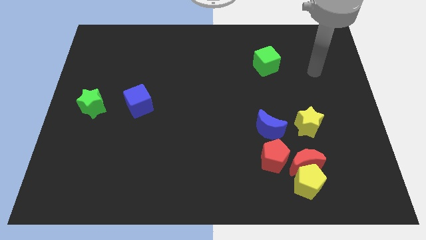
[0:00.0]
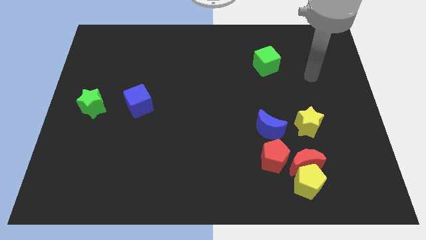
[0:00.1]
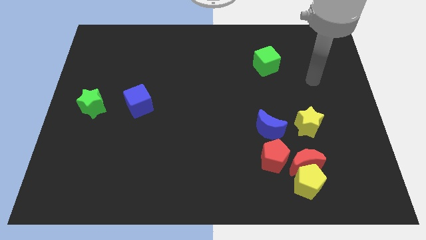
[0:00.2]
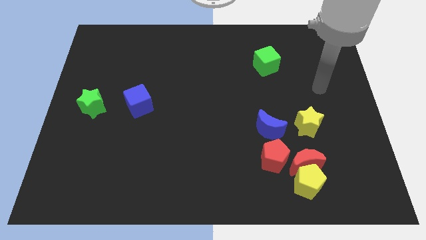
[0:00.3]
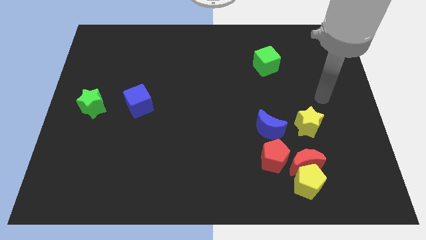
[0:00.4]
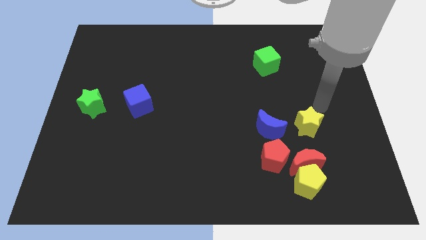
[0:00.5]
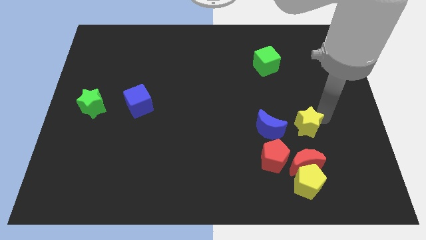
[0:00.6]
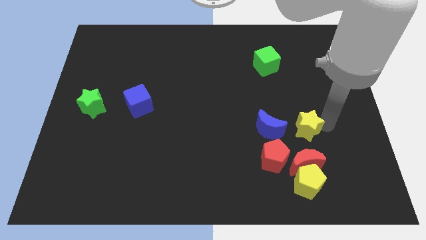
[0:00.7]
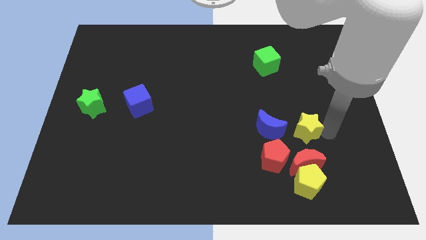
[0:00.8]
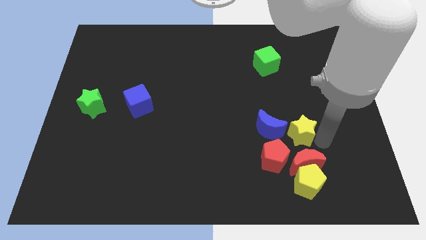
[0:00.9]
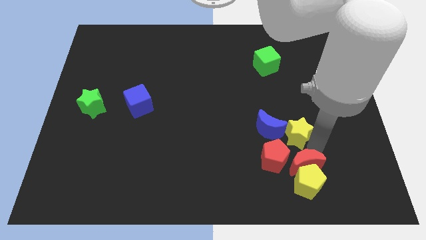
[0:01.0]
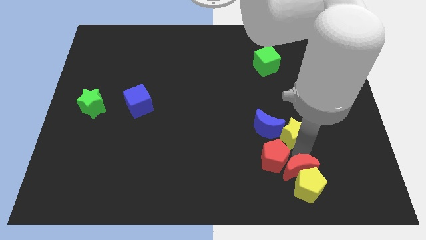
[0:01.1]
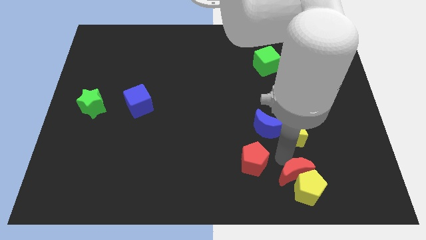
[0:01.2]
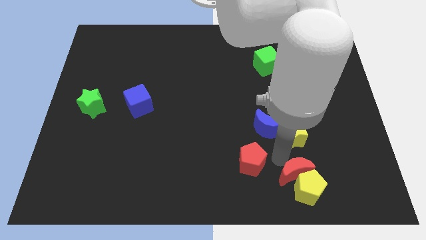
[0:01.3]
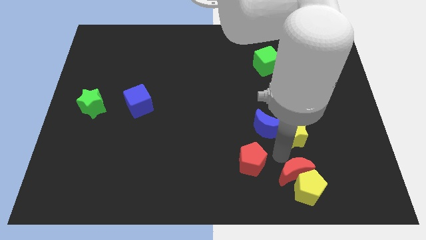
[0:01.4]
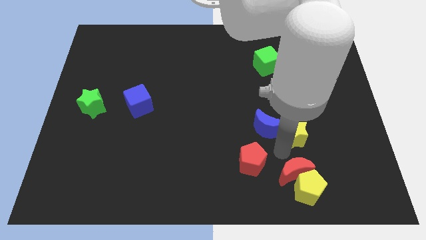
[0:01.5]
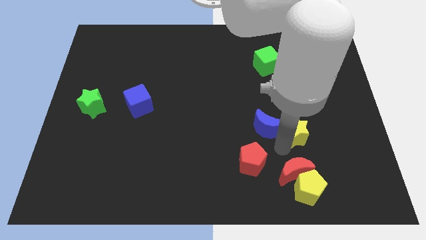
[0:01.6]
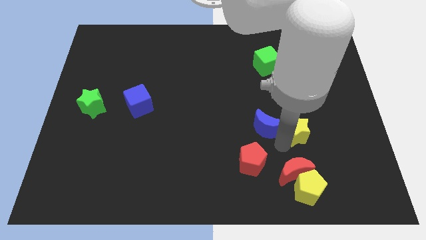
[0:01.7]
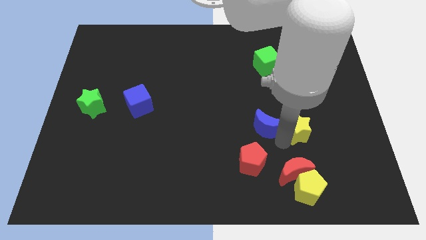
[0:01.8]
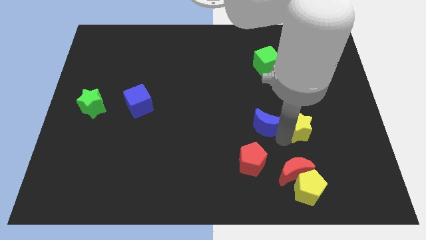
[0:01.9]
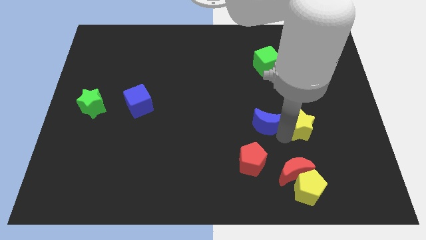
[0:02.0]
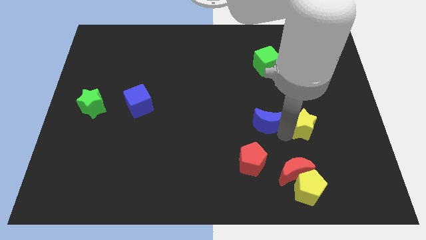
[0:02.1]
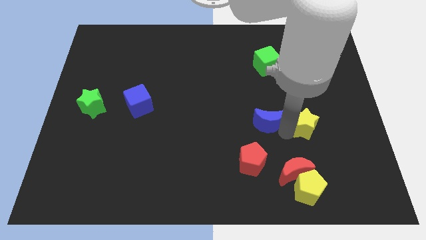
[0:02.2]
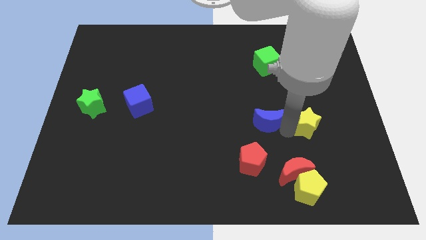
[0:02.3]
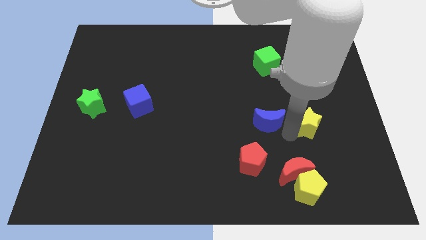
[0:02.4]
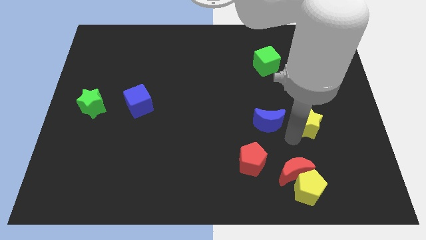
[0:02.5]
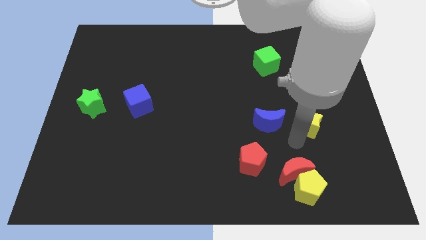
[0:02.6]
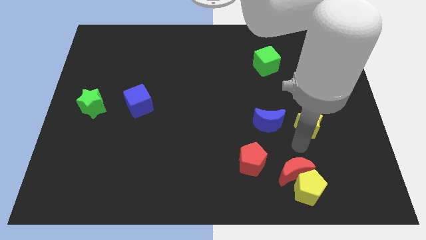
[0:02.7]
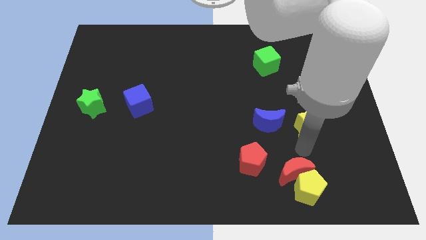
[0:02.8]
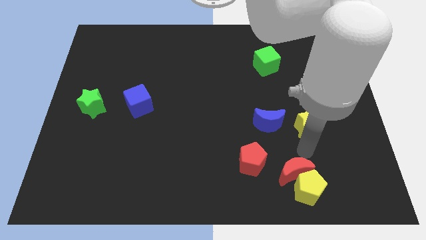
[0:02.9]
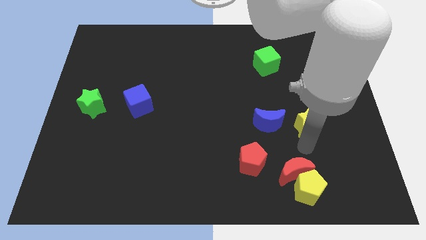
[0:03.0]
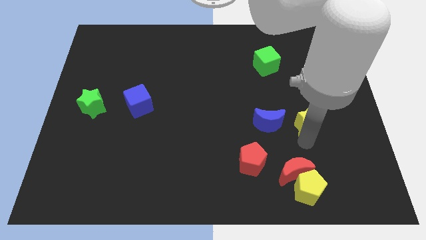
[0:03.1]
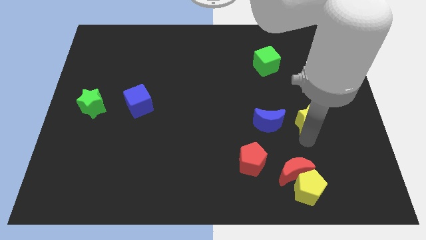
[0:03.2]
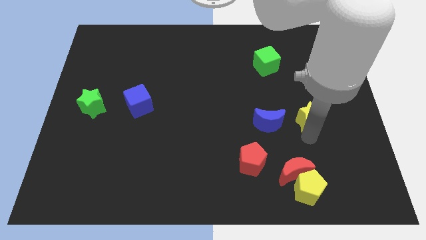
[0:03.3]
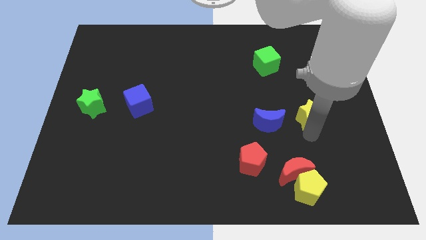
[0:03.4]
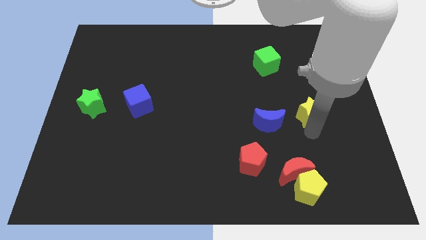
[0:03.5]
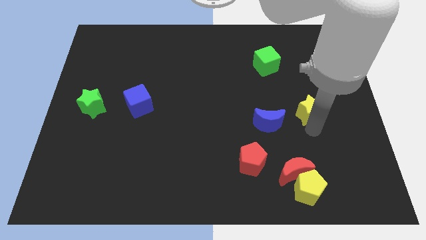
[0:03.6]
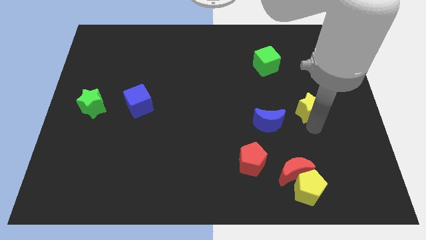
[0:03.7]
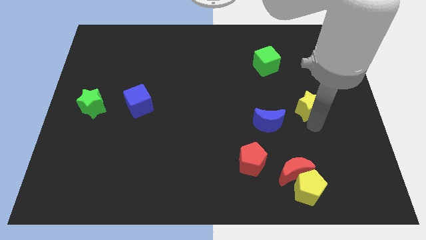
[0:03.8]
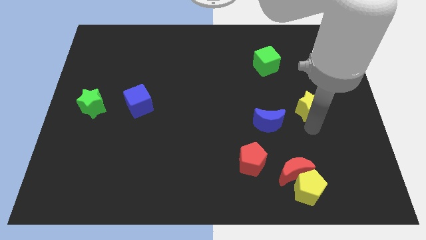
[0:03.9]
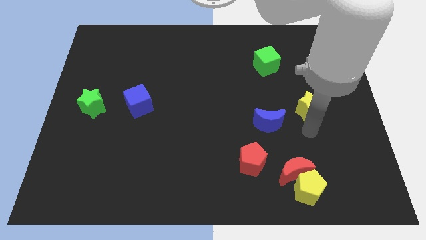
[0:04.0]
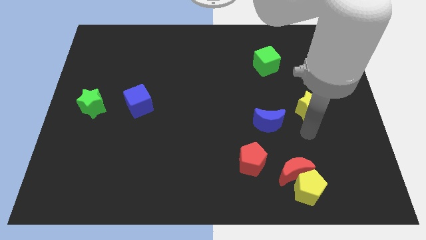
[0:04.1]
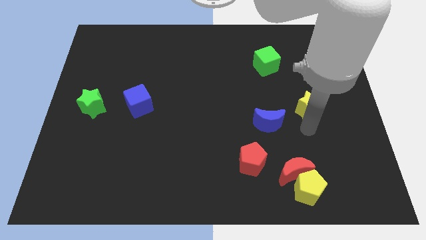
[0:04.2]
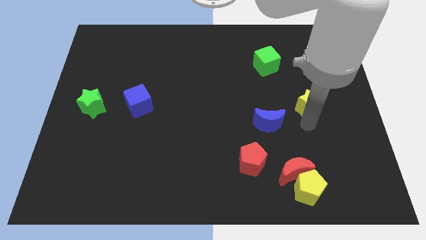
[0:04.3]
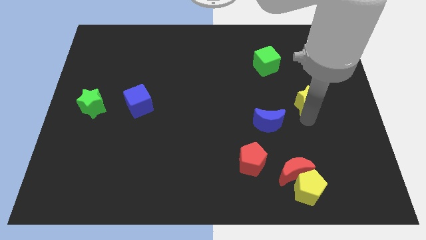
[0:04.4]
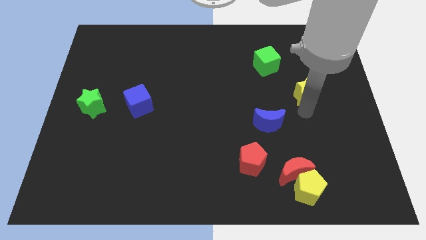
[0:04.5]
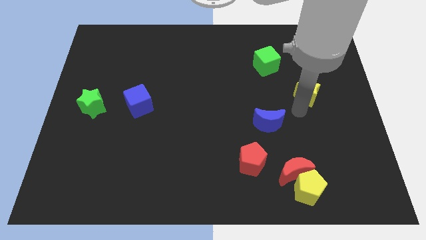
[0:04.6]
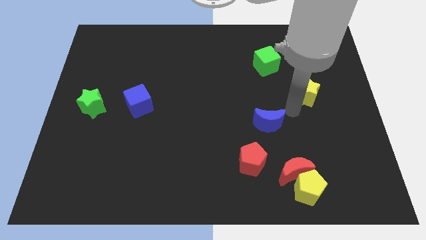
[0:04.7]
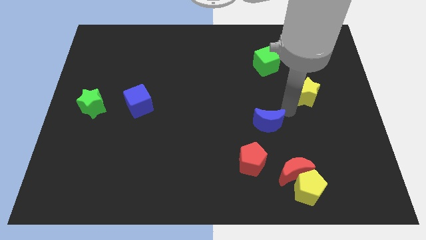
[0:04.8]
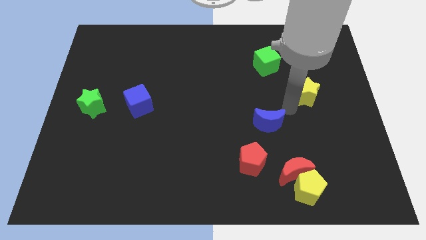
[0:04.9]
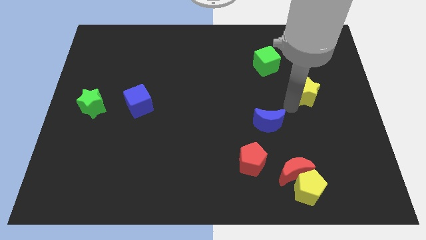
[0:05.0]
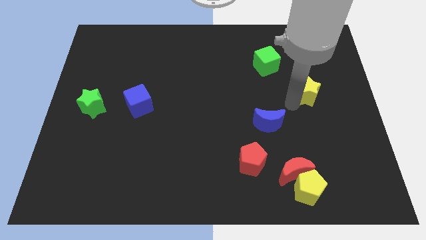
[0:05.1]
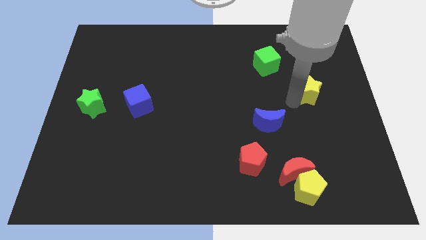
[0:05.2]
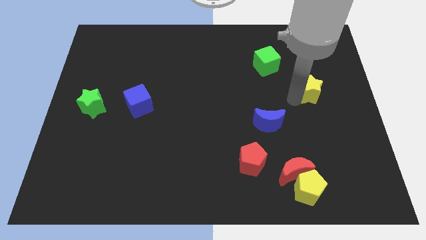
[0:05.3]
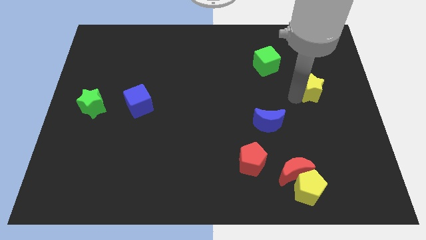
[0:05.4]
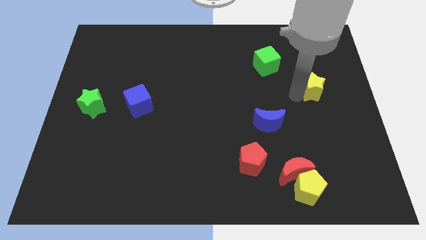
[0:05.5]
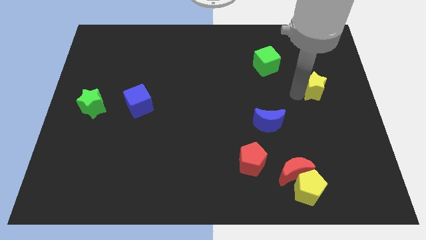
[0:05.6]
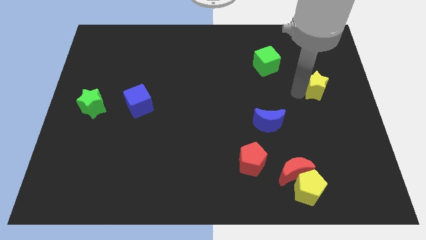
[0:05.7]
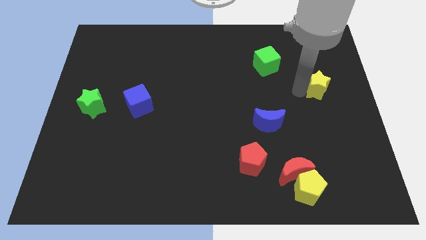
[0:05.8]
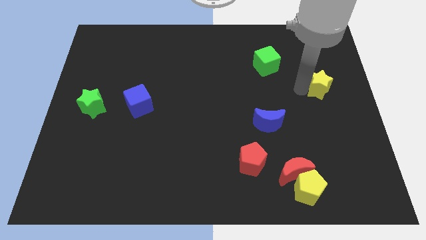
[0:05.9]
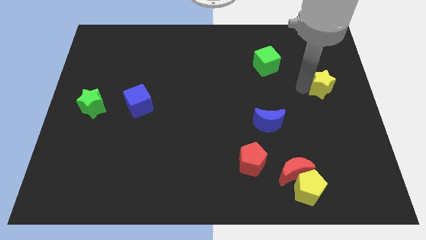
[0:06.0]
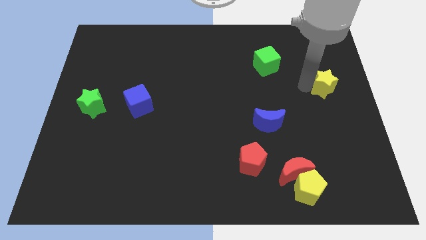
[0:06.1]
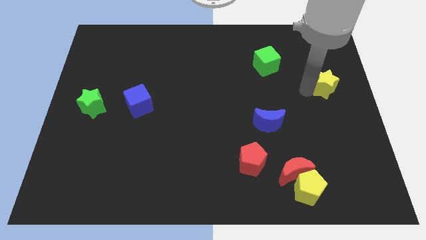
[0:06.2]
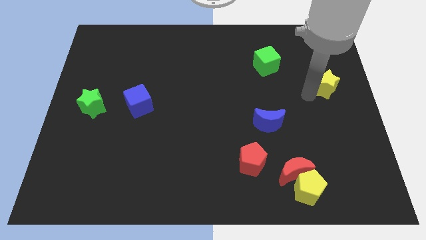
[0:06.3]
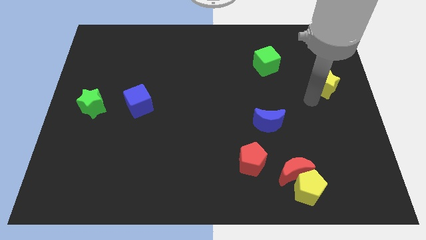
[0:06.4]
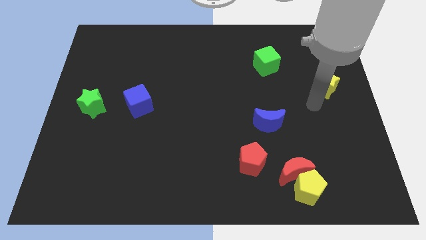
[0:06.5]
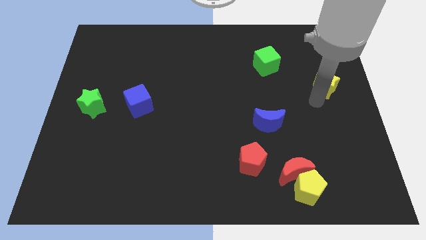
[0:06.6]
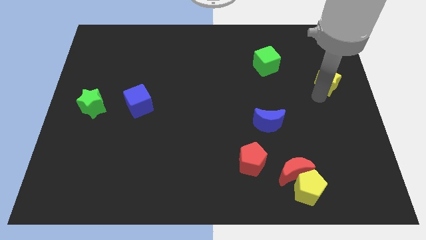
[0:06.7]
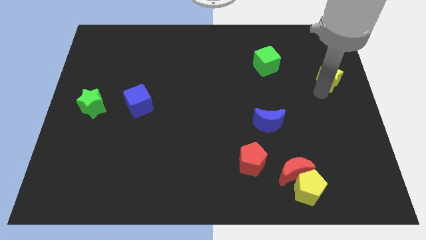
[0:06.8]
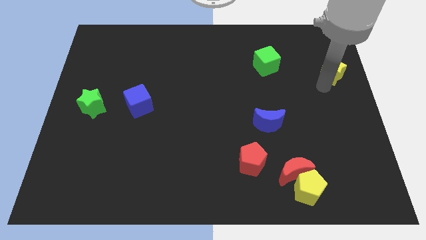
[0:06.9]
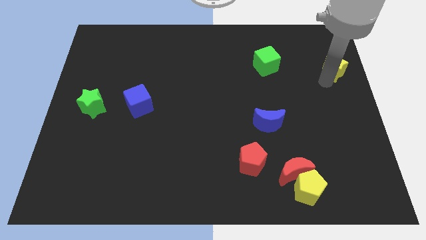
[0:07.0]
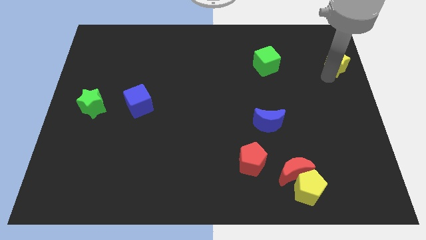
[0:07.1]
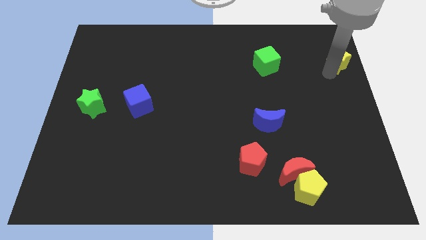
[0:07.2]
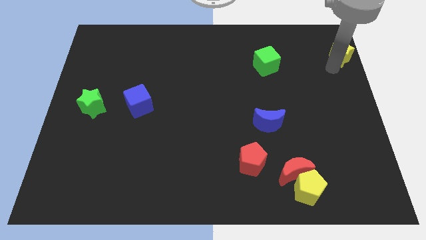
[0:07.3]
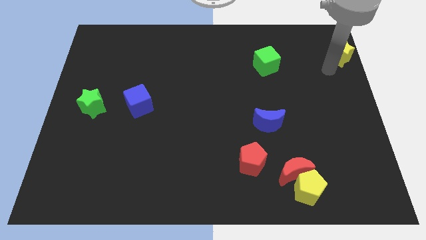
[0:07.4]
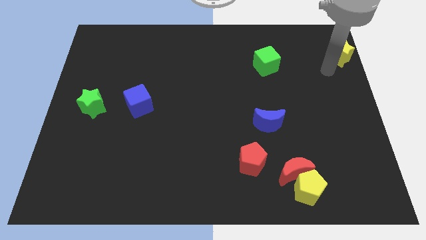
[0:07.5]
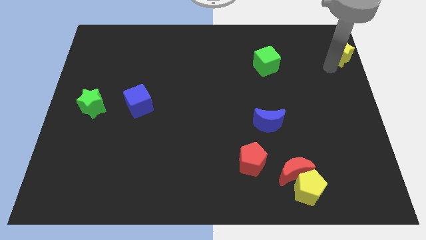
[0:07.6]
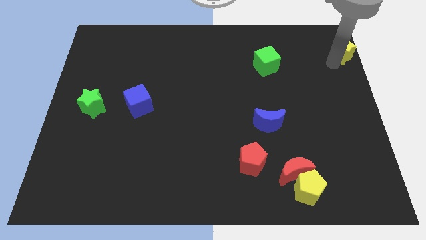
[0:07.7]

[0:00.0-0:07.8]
push the yellow star to the top right of the board
